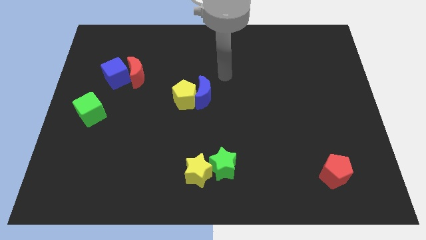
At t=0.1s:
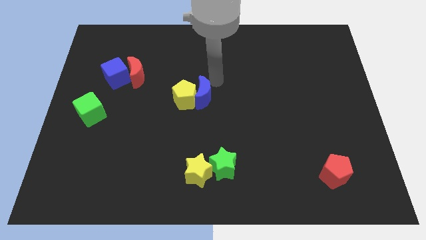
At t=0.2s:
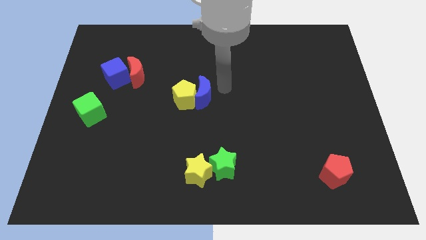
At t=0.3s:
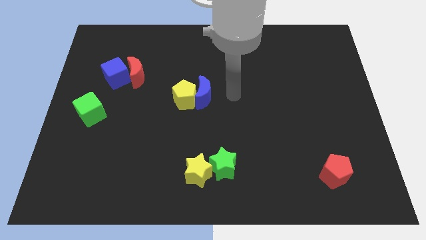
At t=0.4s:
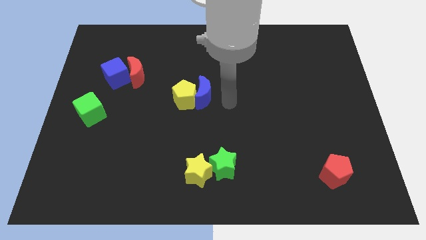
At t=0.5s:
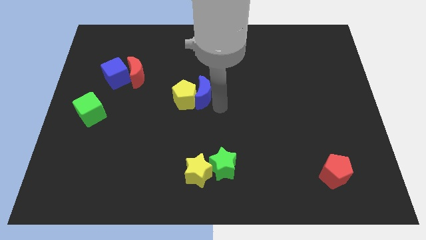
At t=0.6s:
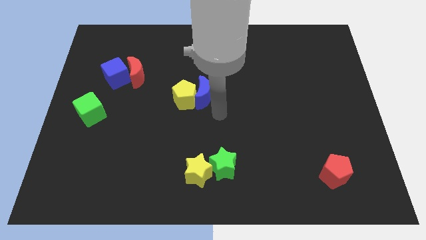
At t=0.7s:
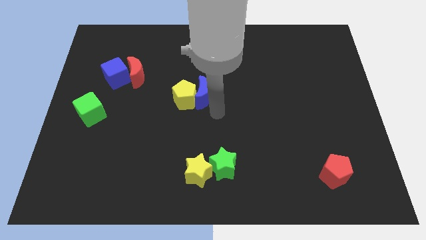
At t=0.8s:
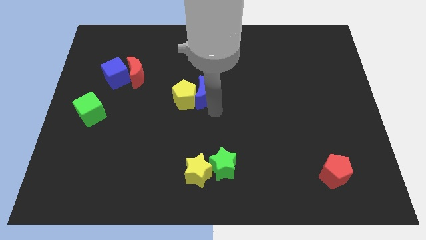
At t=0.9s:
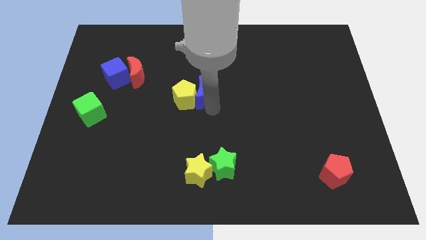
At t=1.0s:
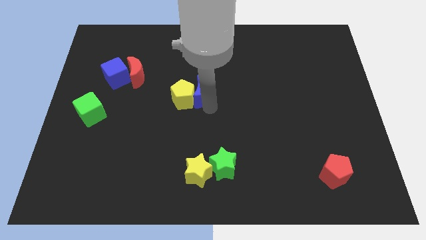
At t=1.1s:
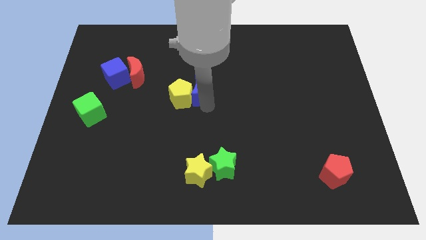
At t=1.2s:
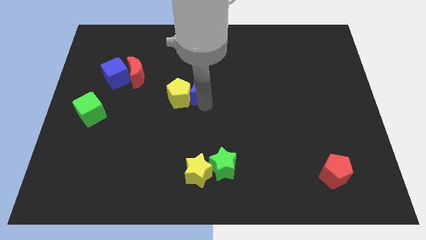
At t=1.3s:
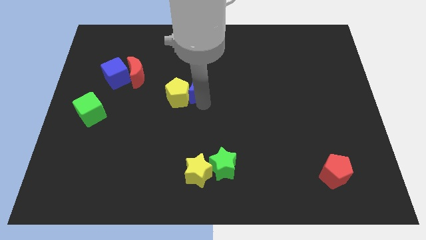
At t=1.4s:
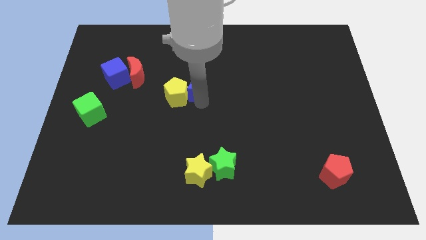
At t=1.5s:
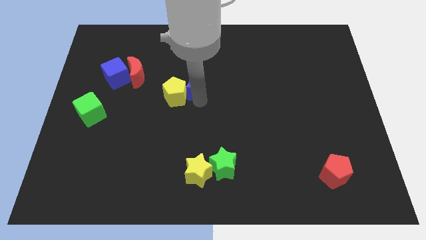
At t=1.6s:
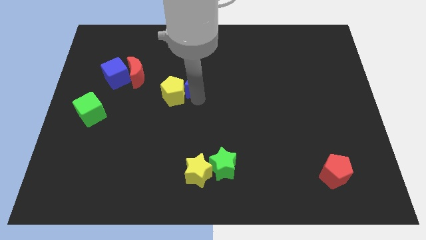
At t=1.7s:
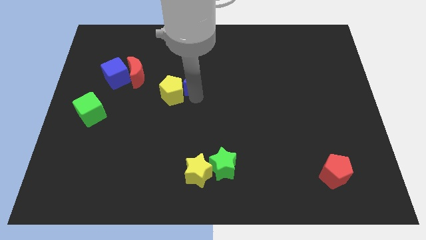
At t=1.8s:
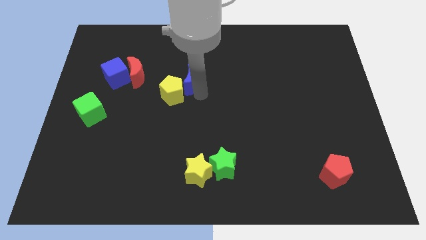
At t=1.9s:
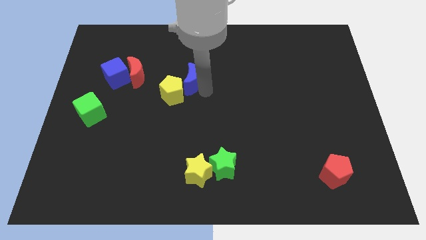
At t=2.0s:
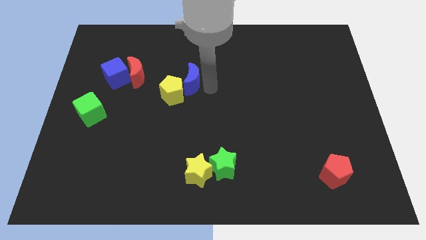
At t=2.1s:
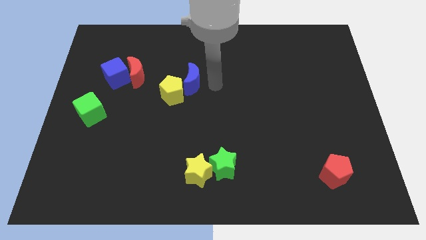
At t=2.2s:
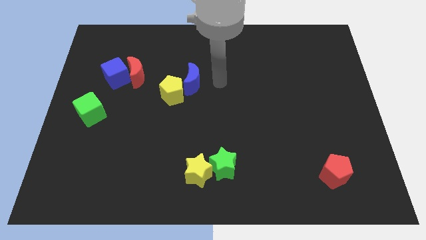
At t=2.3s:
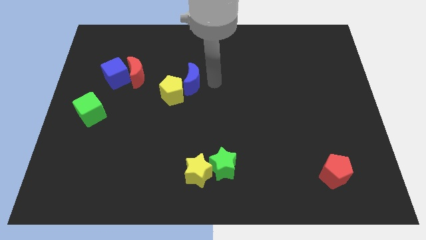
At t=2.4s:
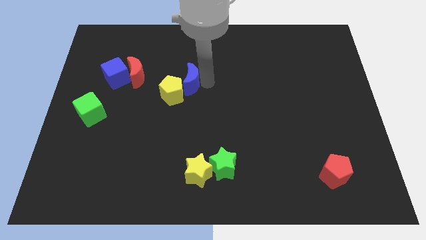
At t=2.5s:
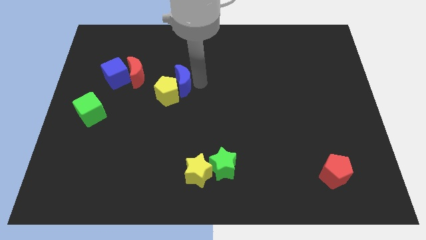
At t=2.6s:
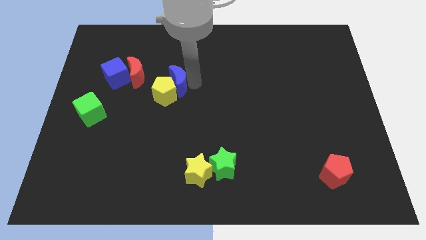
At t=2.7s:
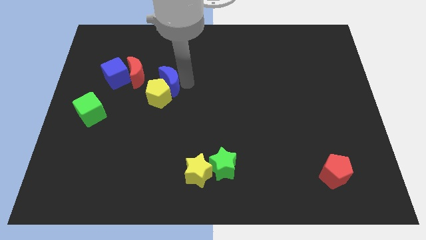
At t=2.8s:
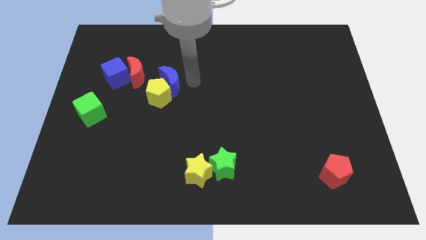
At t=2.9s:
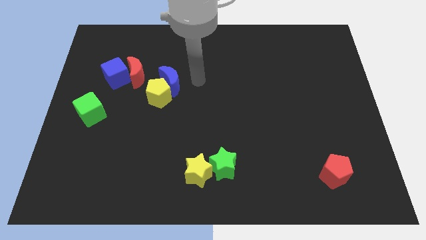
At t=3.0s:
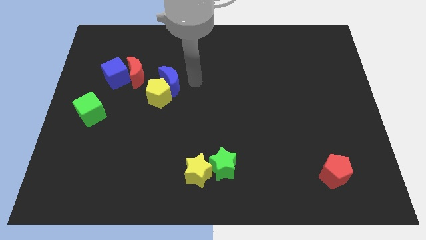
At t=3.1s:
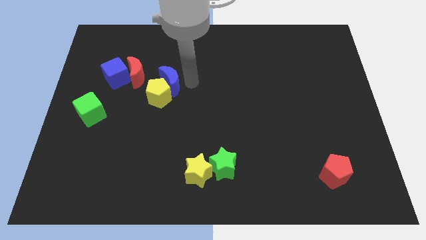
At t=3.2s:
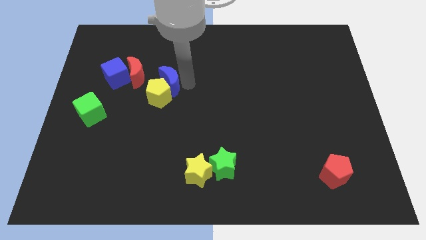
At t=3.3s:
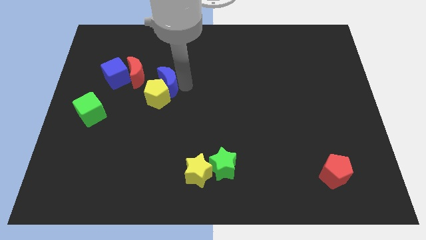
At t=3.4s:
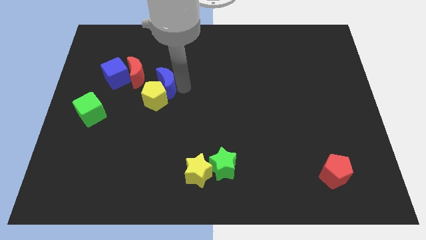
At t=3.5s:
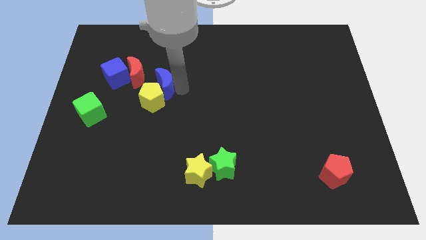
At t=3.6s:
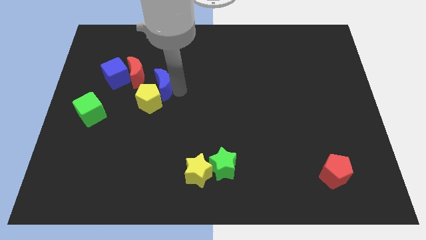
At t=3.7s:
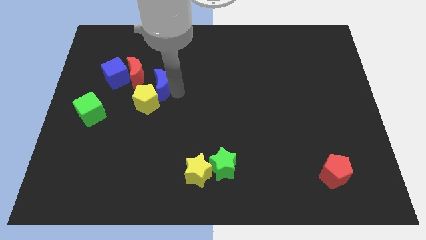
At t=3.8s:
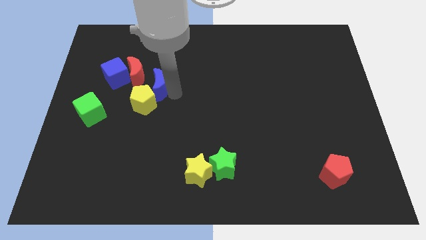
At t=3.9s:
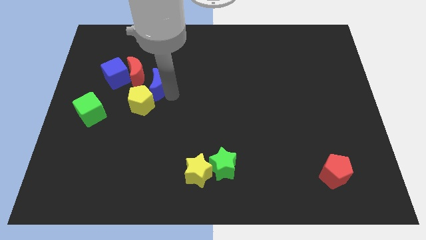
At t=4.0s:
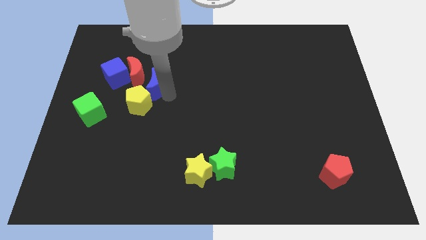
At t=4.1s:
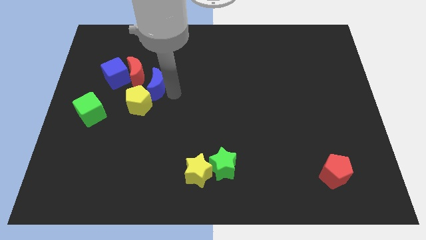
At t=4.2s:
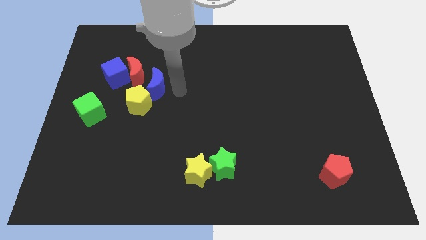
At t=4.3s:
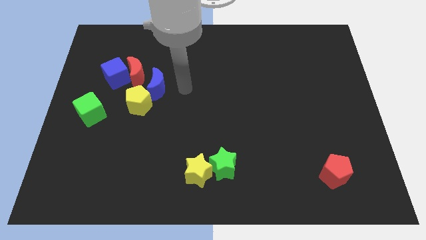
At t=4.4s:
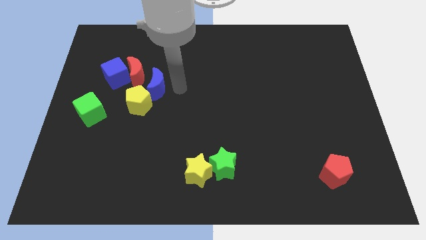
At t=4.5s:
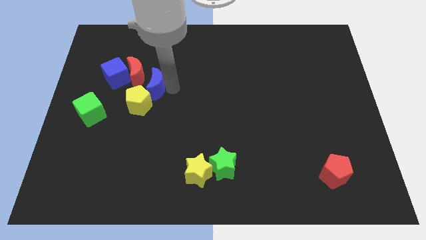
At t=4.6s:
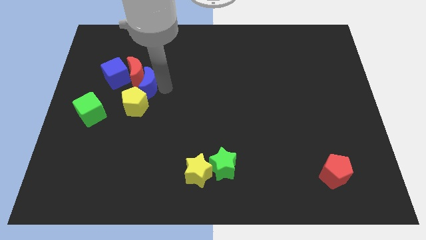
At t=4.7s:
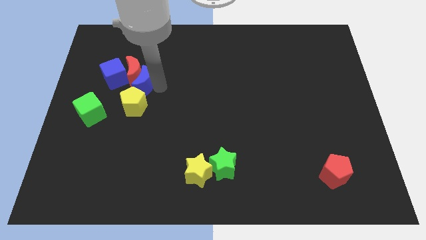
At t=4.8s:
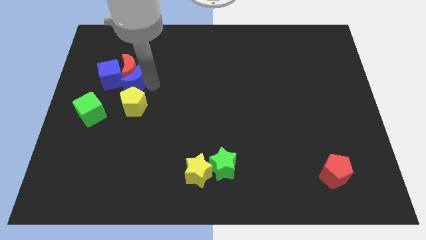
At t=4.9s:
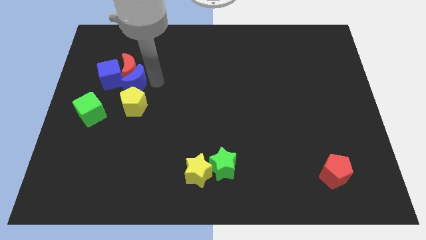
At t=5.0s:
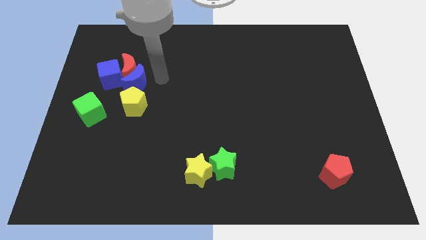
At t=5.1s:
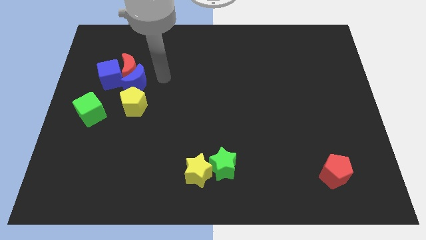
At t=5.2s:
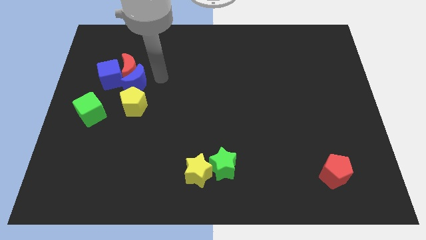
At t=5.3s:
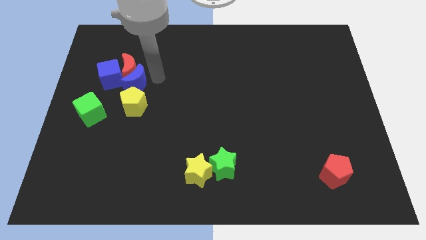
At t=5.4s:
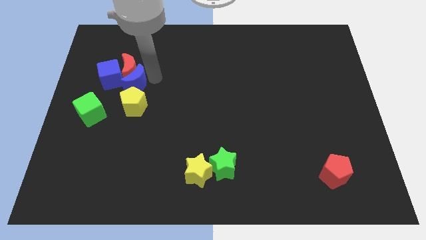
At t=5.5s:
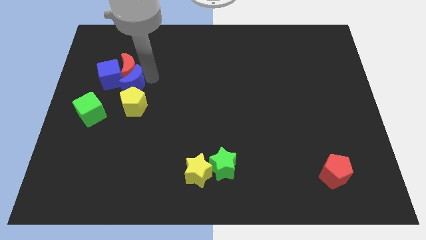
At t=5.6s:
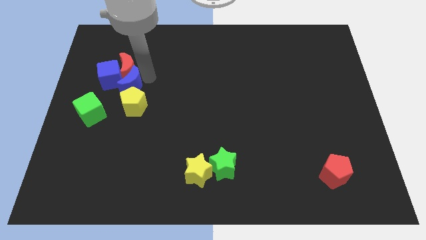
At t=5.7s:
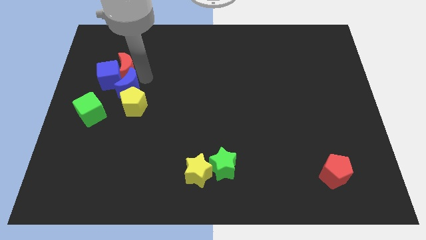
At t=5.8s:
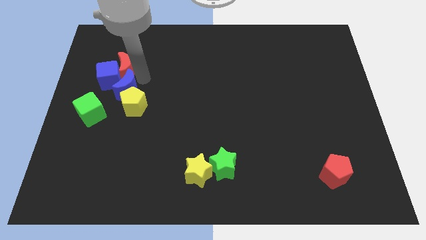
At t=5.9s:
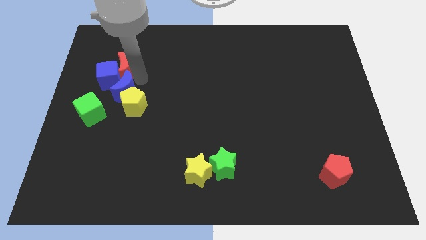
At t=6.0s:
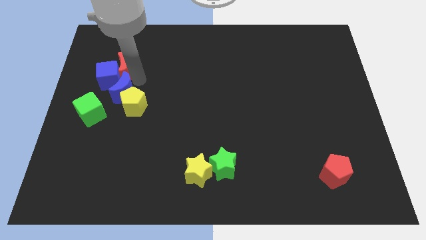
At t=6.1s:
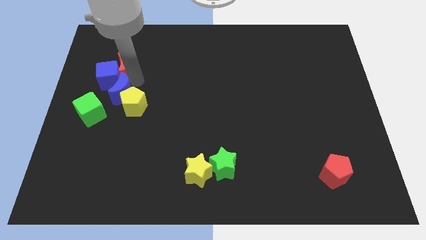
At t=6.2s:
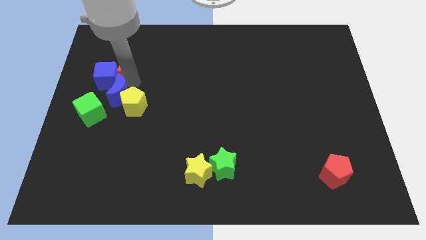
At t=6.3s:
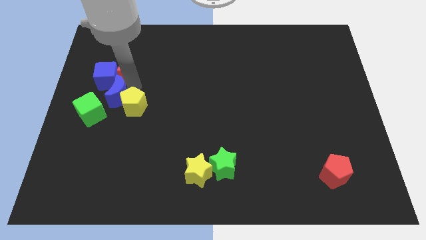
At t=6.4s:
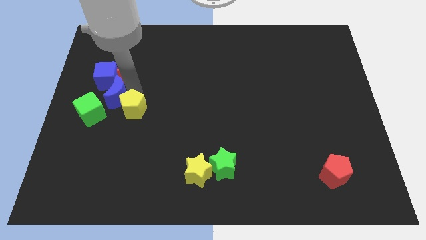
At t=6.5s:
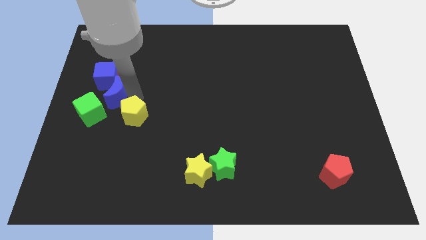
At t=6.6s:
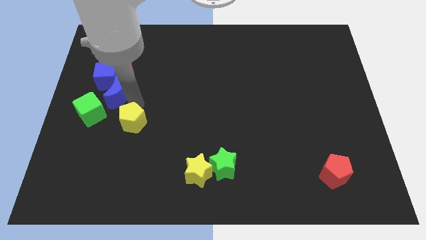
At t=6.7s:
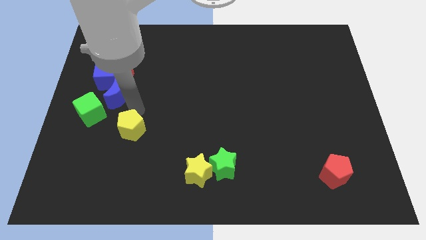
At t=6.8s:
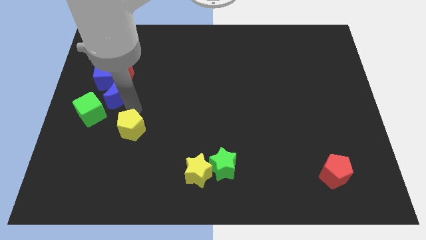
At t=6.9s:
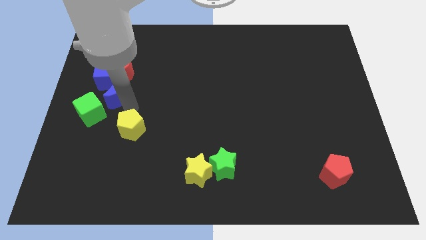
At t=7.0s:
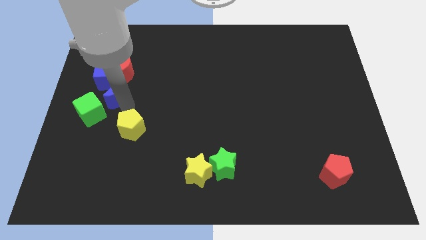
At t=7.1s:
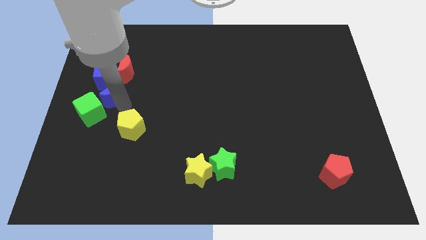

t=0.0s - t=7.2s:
slide the blue moon to the top side of the green cube

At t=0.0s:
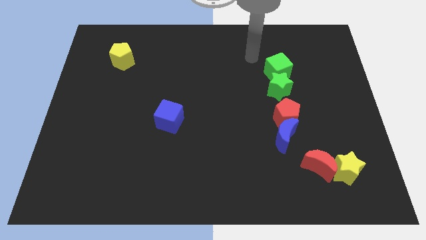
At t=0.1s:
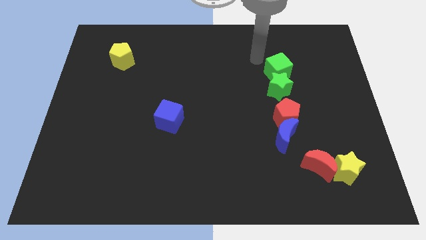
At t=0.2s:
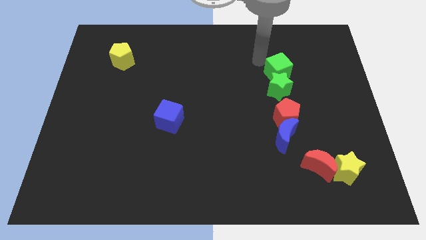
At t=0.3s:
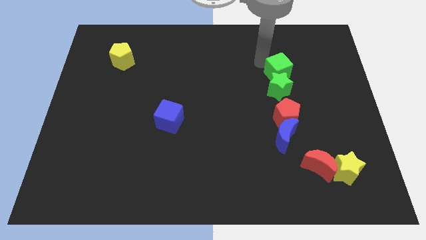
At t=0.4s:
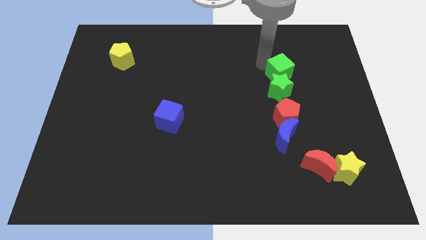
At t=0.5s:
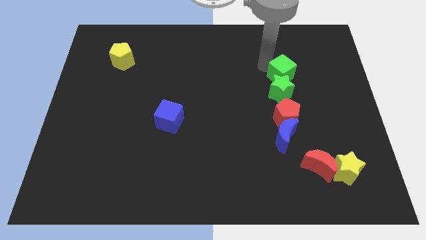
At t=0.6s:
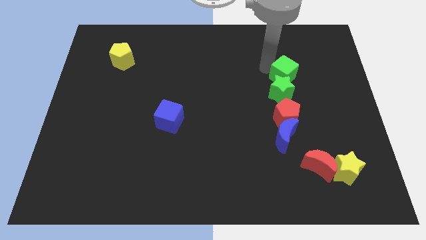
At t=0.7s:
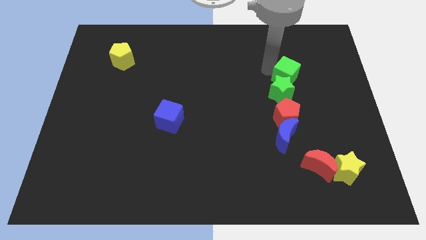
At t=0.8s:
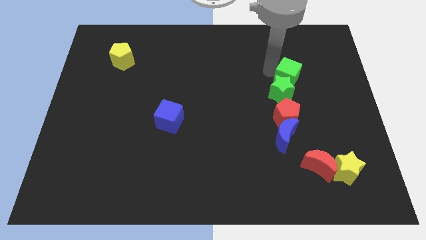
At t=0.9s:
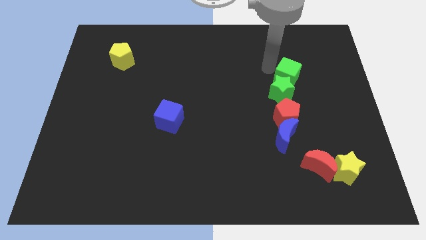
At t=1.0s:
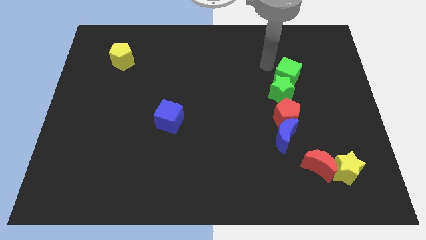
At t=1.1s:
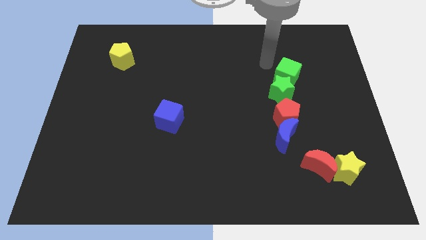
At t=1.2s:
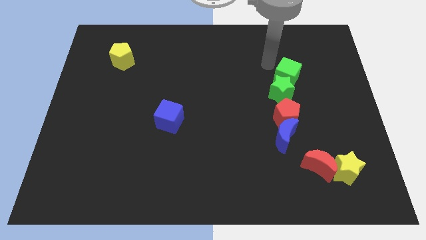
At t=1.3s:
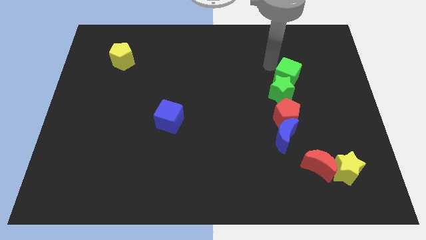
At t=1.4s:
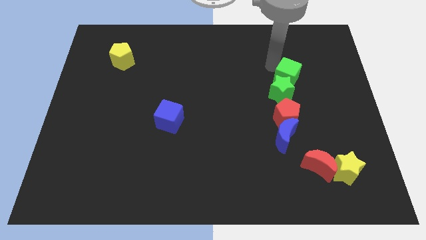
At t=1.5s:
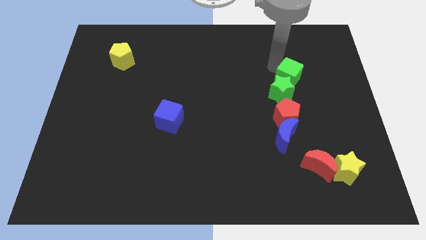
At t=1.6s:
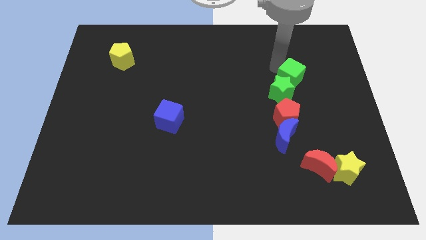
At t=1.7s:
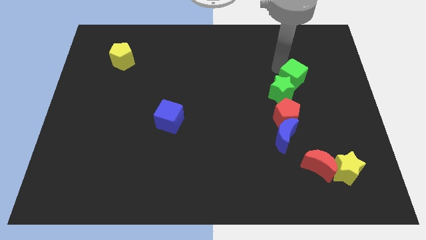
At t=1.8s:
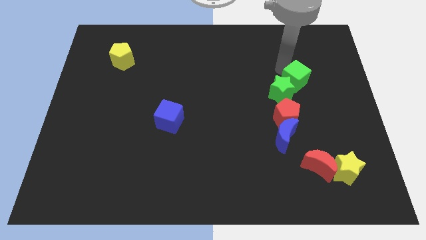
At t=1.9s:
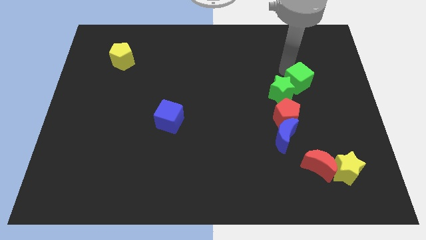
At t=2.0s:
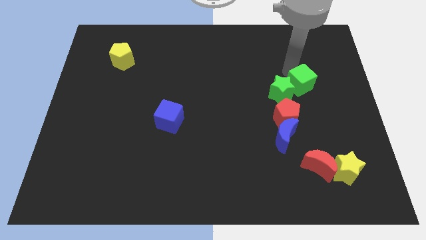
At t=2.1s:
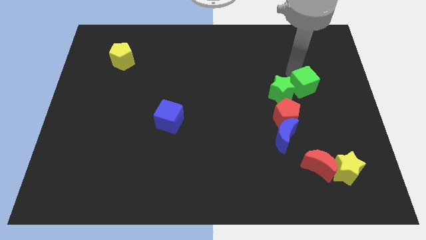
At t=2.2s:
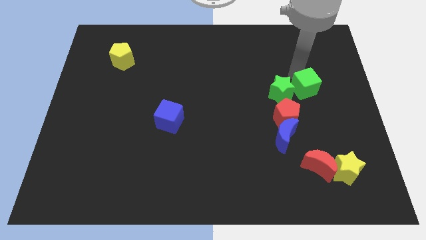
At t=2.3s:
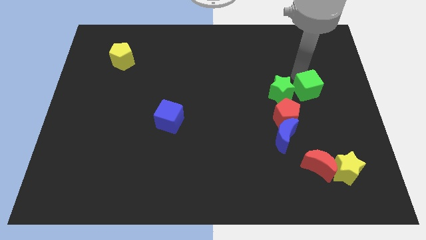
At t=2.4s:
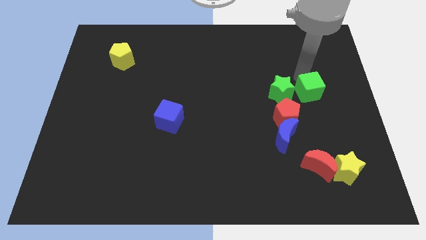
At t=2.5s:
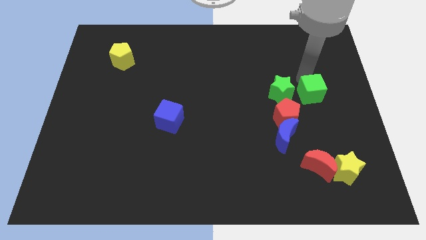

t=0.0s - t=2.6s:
slide the green cube diagonally down and to the right of the green star
